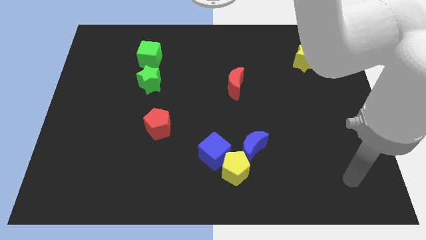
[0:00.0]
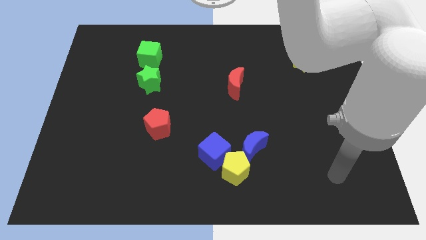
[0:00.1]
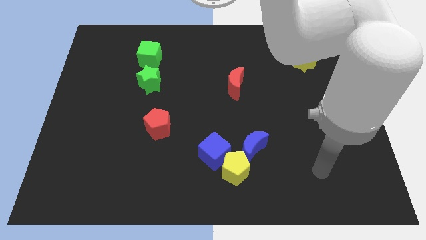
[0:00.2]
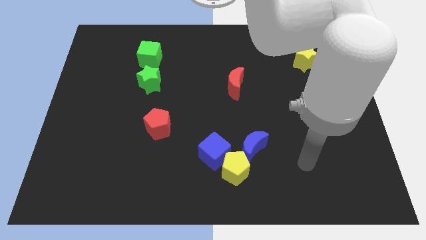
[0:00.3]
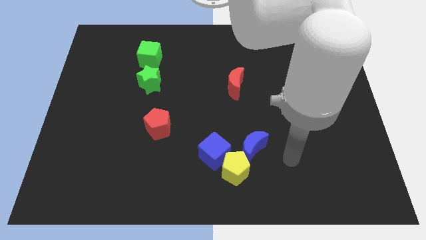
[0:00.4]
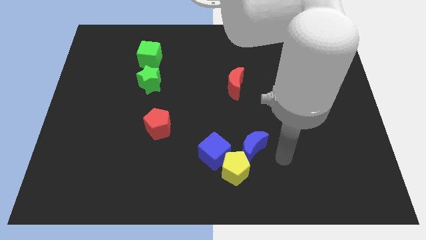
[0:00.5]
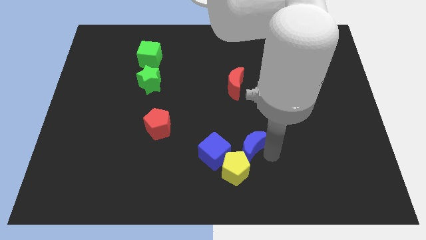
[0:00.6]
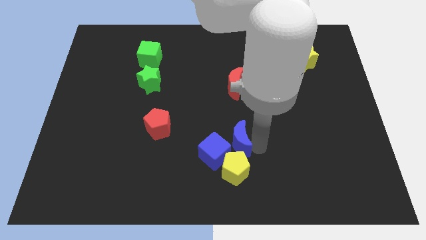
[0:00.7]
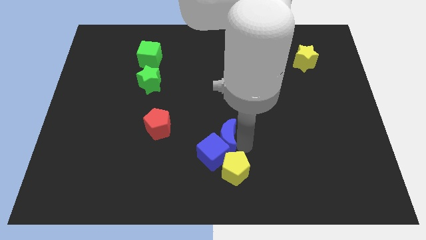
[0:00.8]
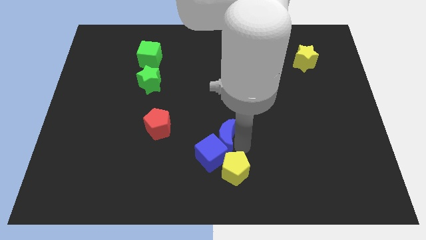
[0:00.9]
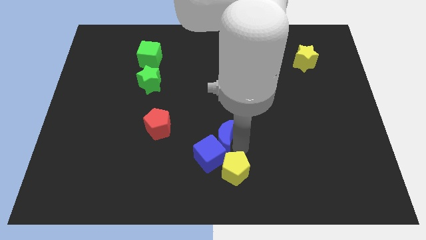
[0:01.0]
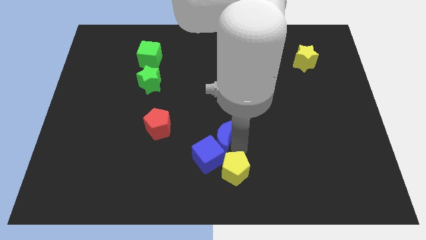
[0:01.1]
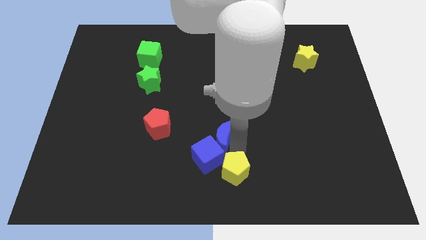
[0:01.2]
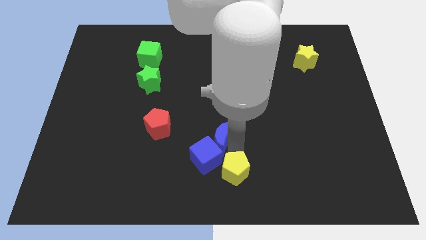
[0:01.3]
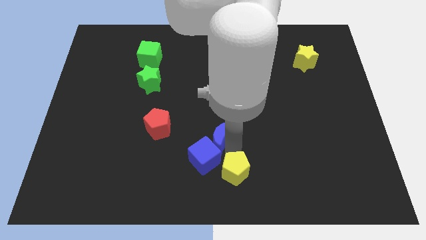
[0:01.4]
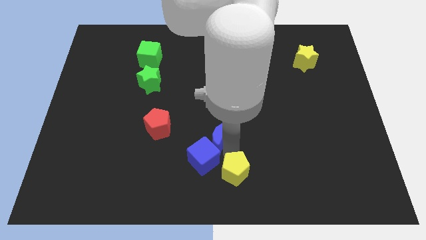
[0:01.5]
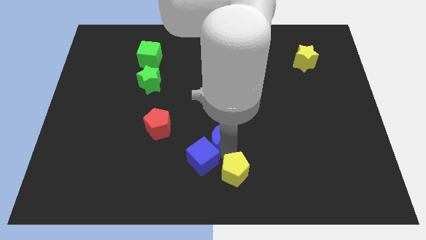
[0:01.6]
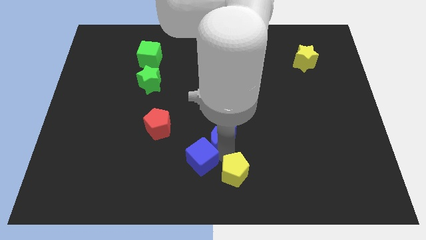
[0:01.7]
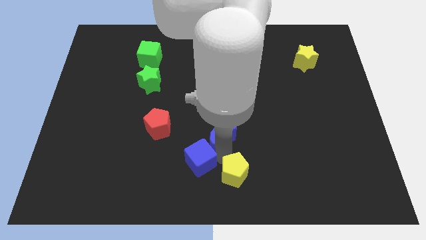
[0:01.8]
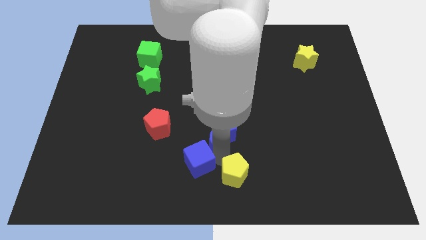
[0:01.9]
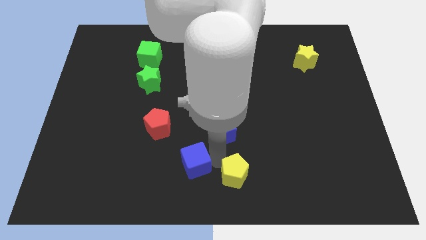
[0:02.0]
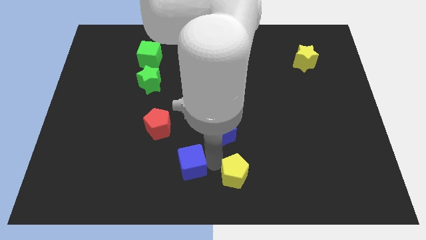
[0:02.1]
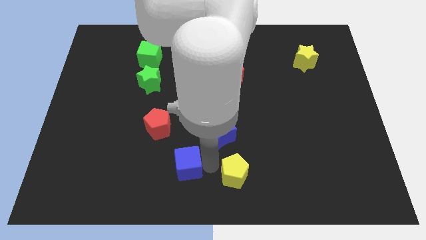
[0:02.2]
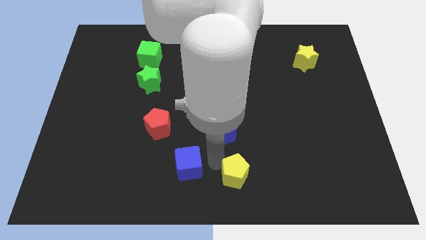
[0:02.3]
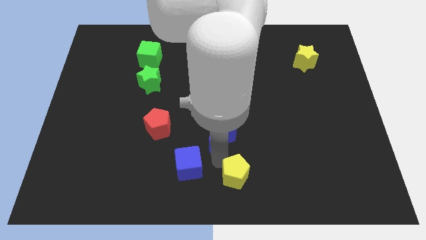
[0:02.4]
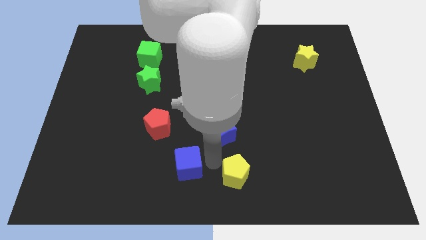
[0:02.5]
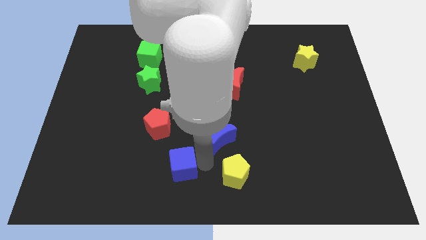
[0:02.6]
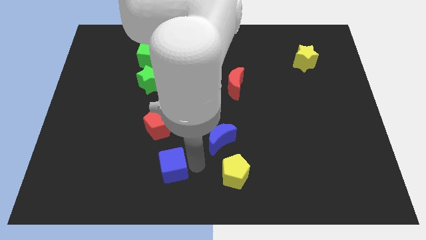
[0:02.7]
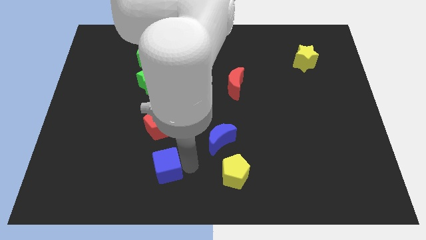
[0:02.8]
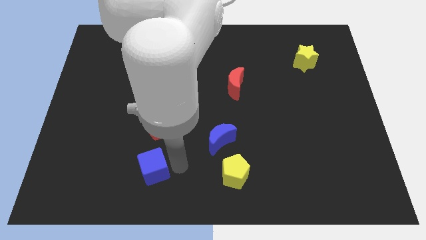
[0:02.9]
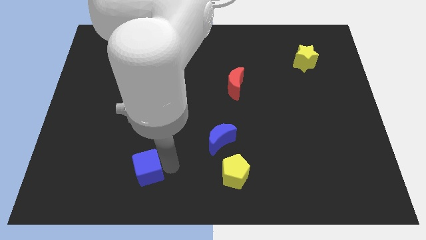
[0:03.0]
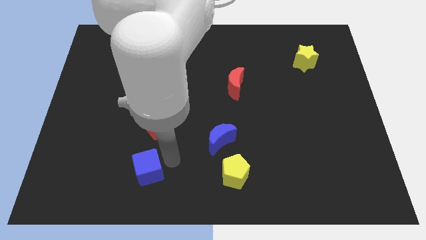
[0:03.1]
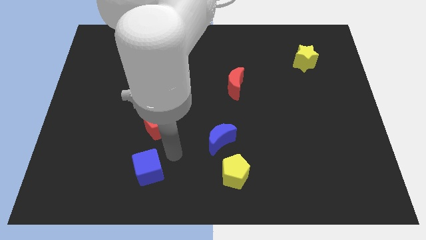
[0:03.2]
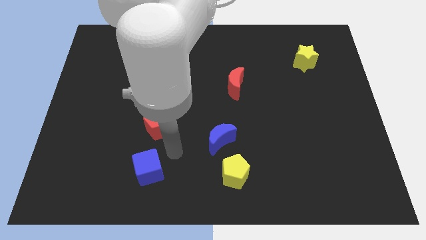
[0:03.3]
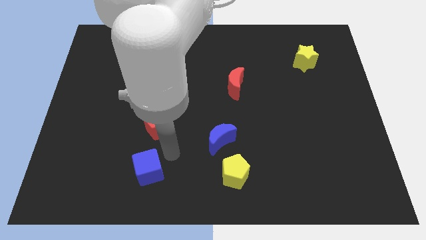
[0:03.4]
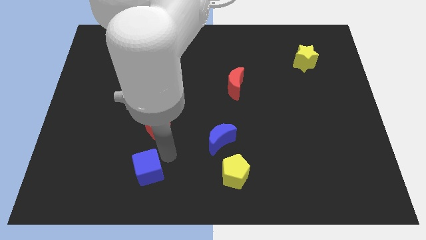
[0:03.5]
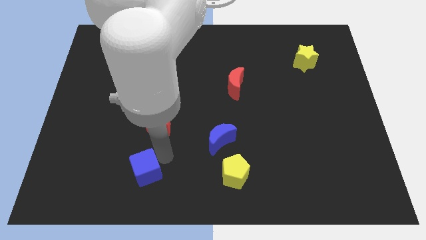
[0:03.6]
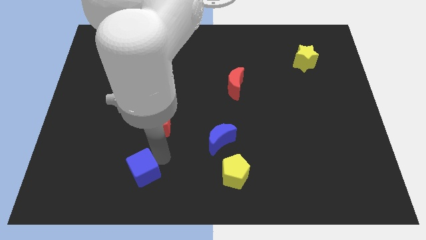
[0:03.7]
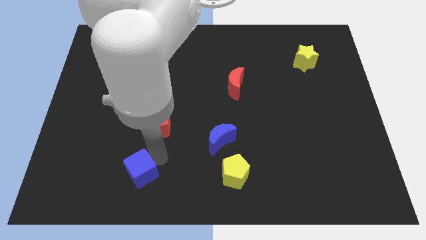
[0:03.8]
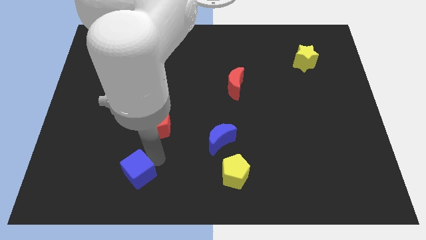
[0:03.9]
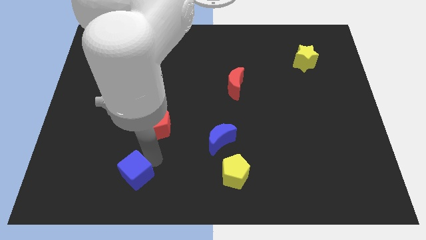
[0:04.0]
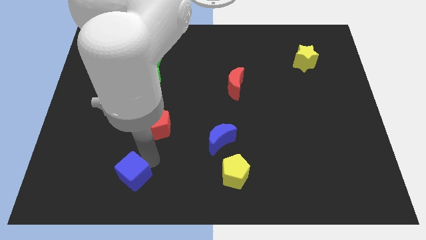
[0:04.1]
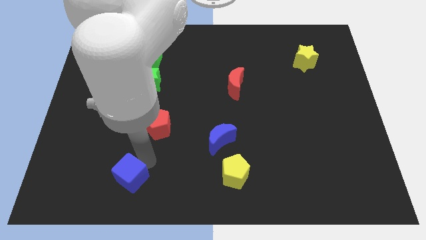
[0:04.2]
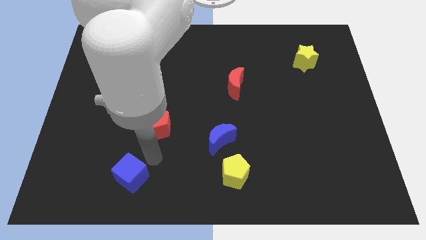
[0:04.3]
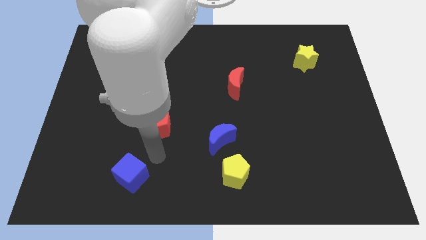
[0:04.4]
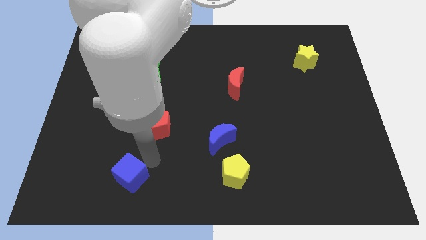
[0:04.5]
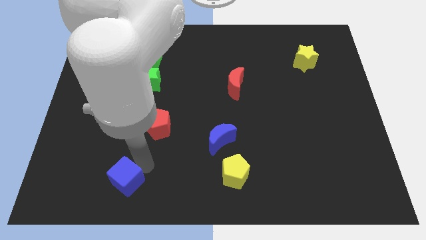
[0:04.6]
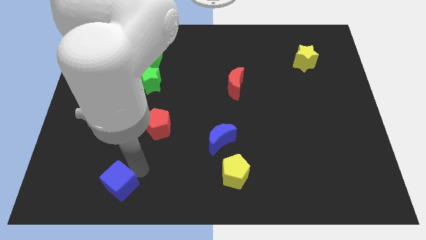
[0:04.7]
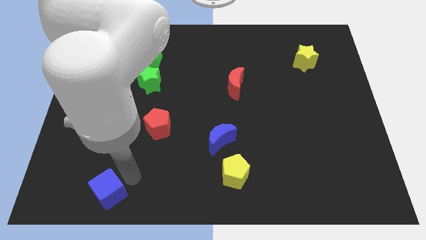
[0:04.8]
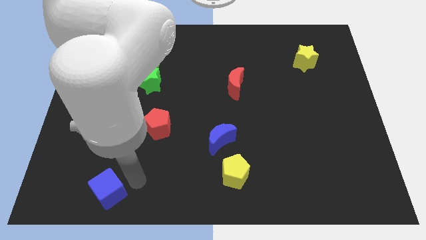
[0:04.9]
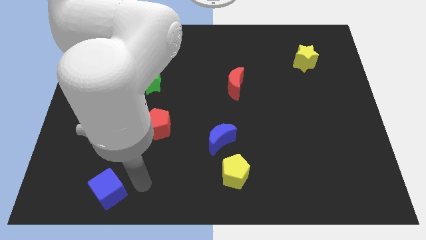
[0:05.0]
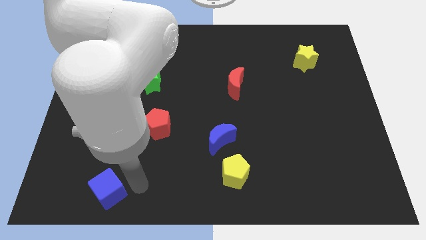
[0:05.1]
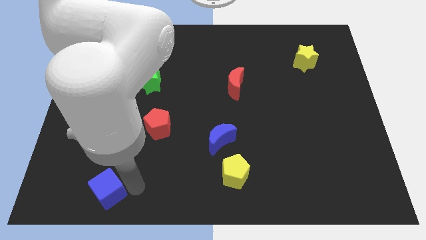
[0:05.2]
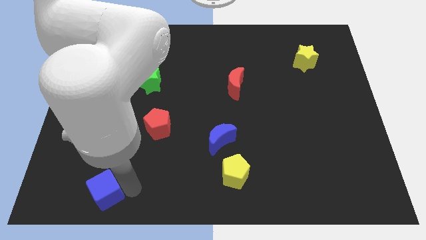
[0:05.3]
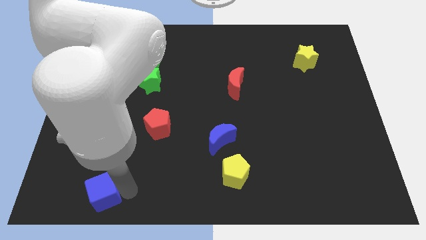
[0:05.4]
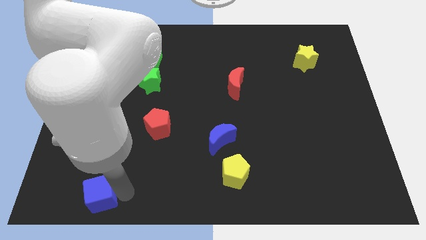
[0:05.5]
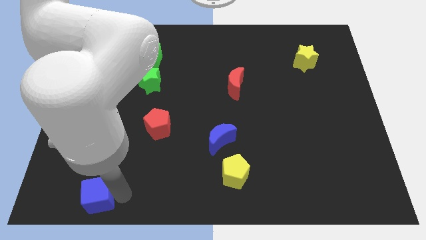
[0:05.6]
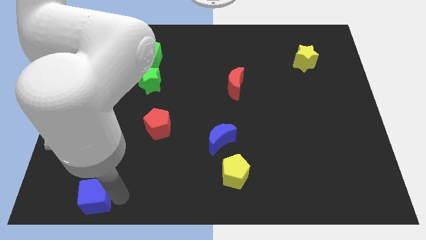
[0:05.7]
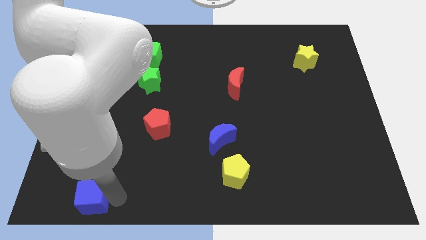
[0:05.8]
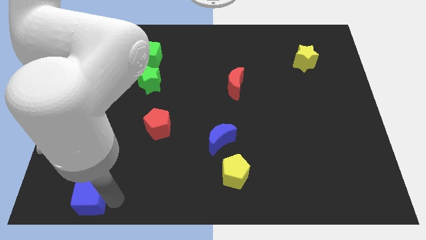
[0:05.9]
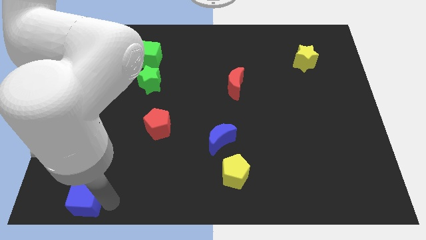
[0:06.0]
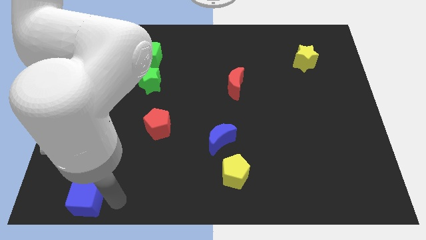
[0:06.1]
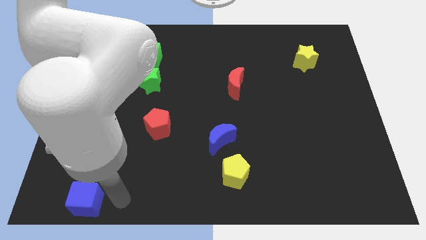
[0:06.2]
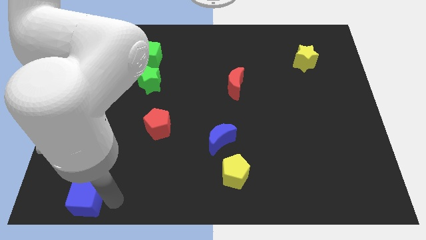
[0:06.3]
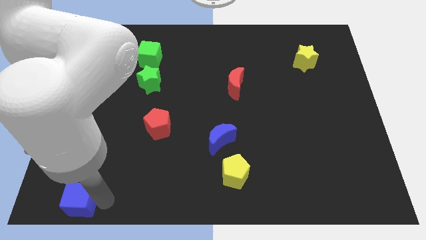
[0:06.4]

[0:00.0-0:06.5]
put the blue cube to the bottom left

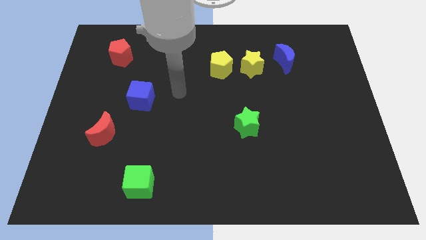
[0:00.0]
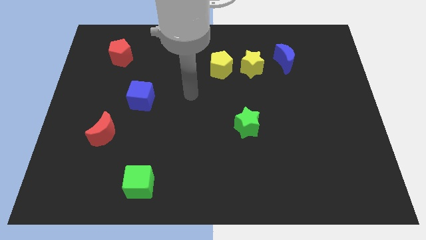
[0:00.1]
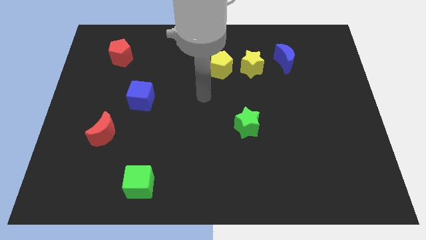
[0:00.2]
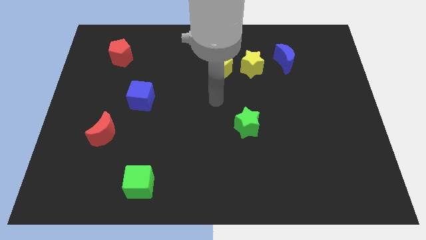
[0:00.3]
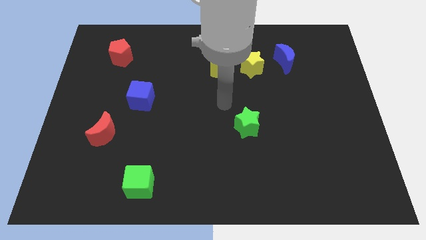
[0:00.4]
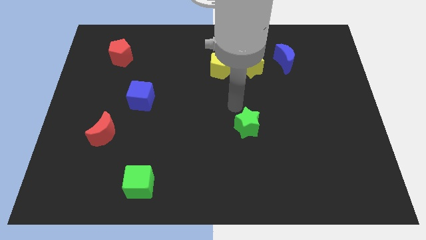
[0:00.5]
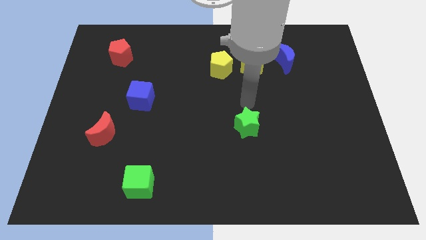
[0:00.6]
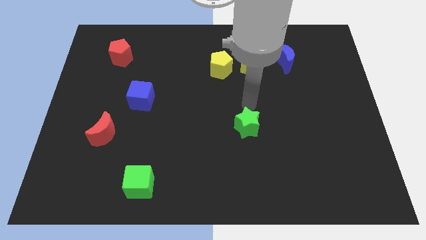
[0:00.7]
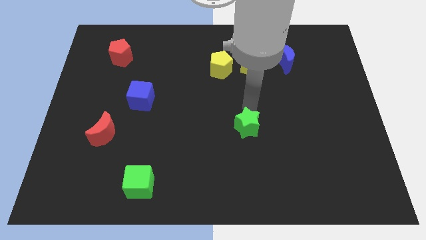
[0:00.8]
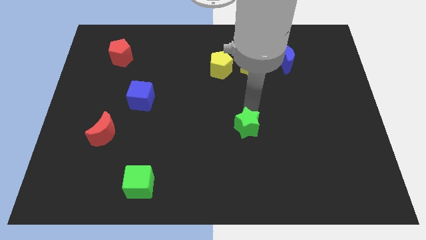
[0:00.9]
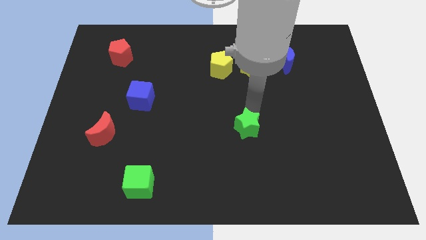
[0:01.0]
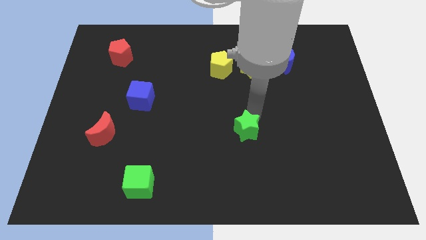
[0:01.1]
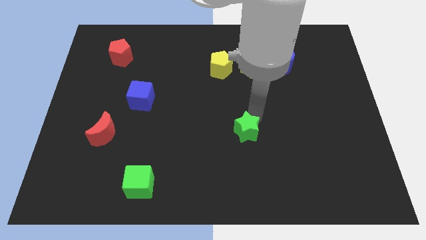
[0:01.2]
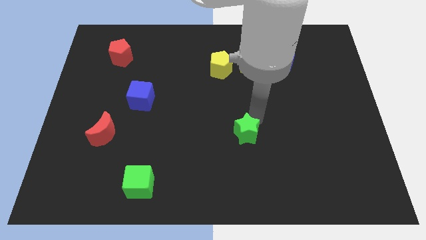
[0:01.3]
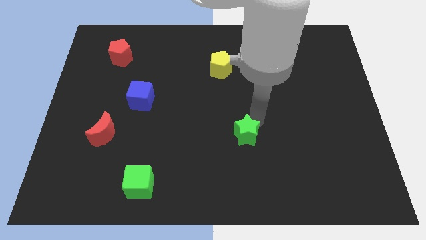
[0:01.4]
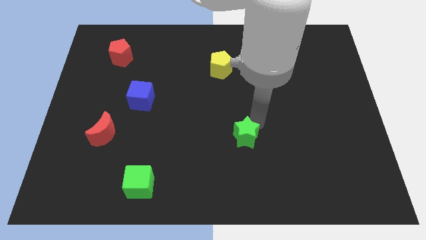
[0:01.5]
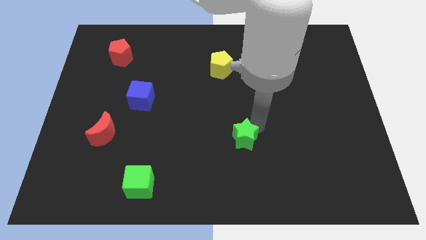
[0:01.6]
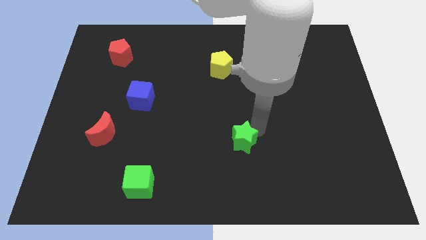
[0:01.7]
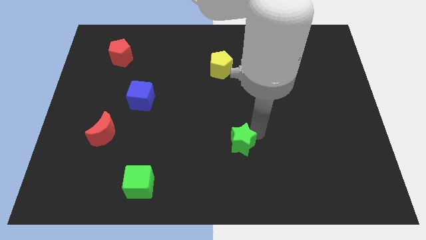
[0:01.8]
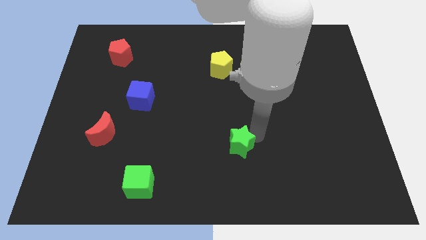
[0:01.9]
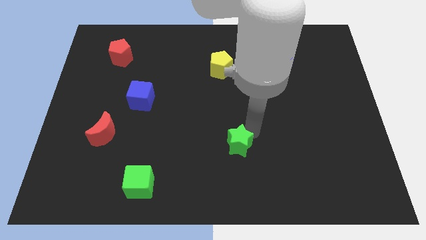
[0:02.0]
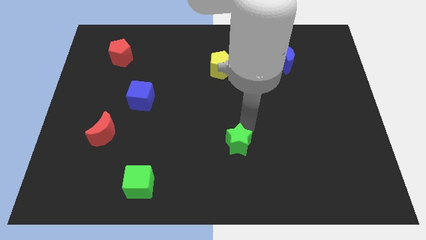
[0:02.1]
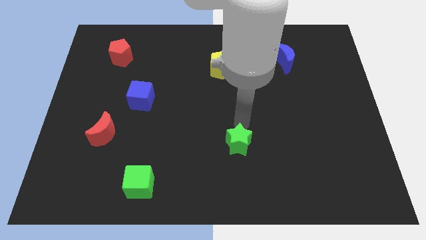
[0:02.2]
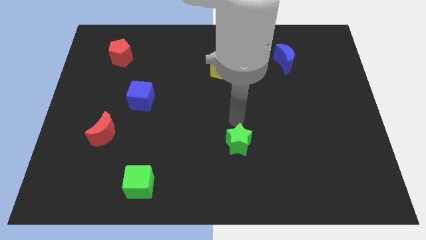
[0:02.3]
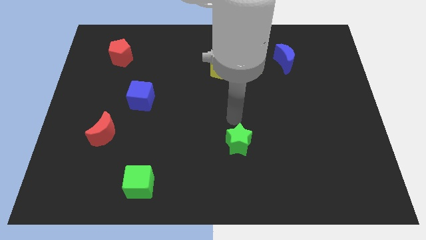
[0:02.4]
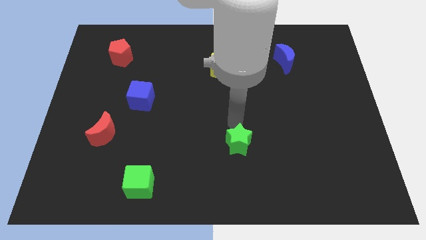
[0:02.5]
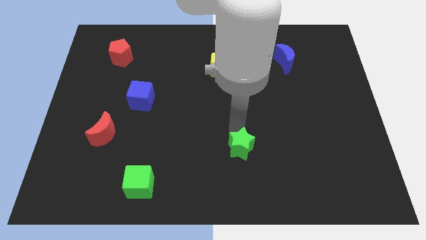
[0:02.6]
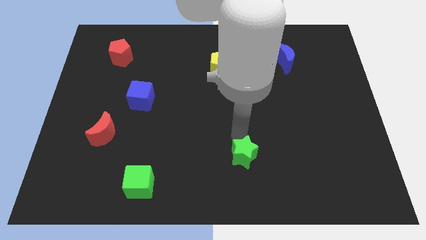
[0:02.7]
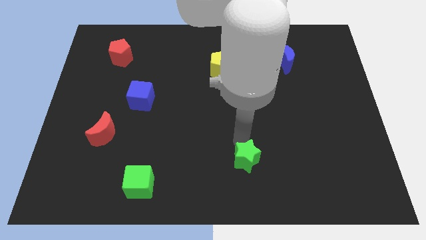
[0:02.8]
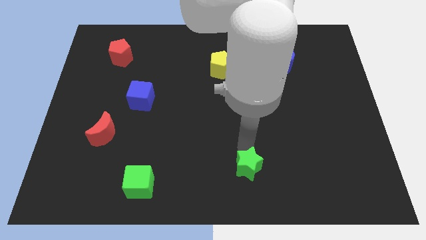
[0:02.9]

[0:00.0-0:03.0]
put the green star to the bottom side
